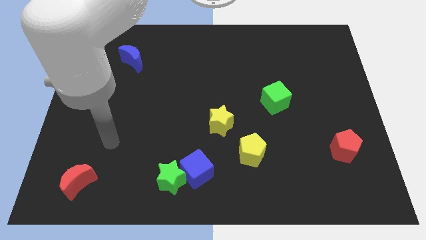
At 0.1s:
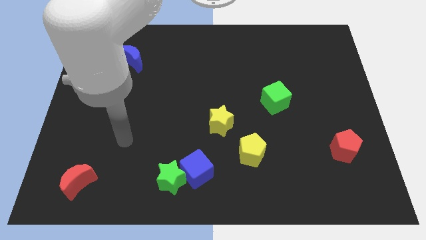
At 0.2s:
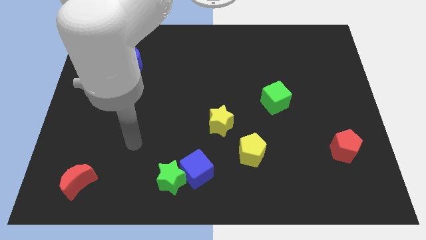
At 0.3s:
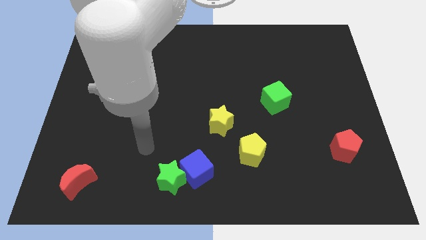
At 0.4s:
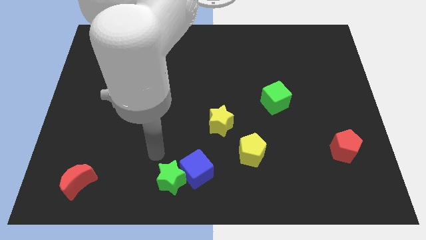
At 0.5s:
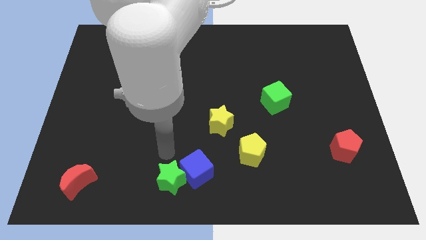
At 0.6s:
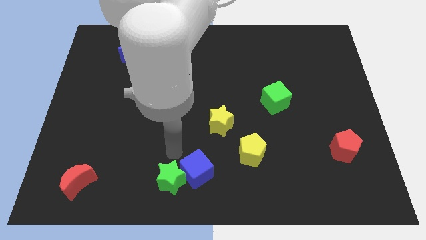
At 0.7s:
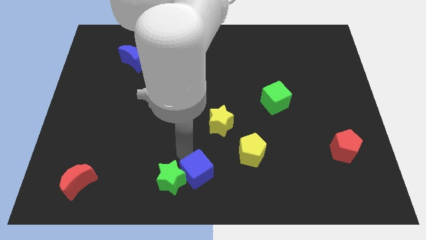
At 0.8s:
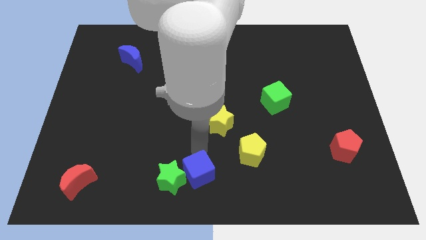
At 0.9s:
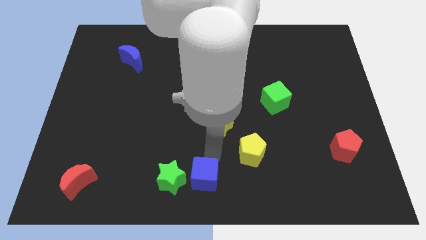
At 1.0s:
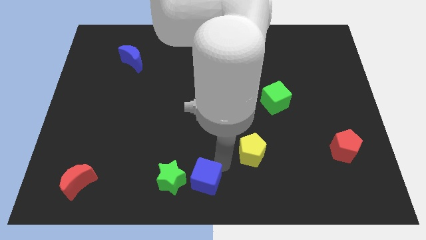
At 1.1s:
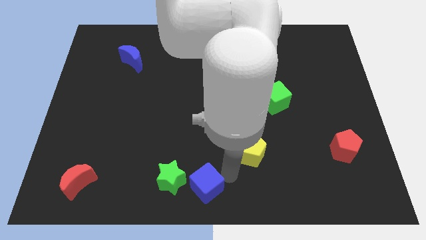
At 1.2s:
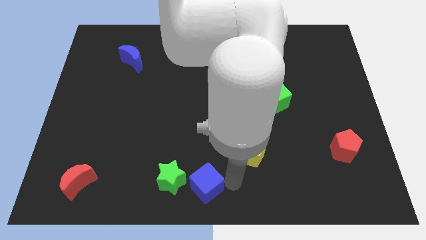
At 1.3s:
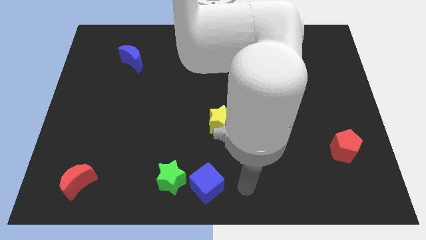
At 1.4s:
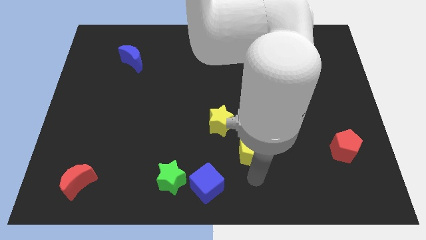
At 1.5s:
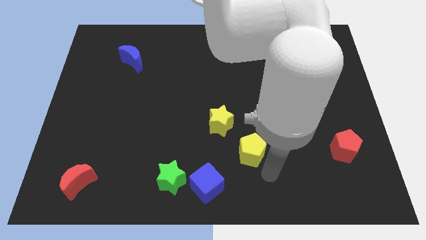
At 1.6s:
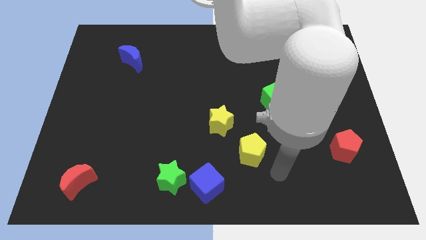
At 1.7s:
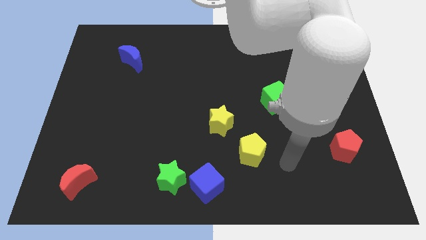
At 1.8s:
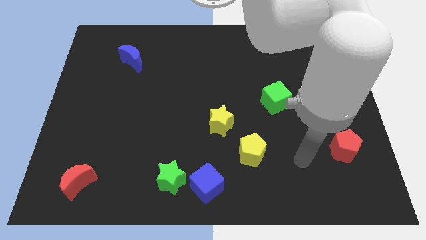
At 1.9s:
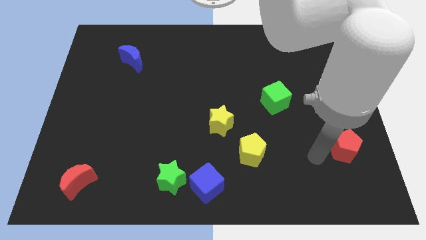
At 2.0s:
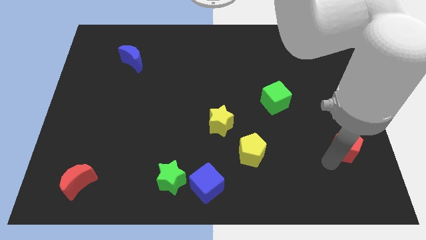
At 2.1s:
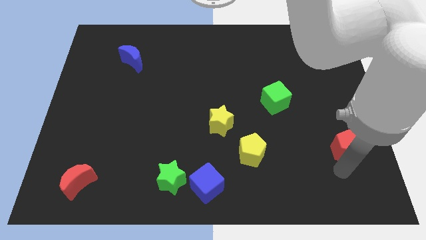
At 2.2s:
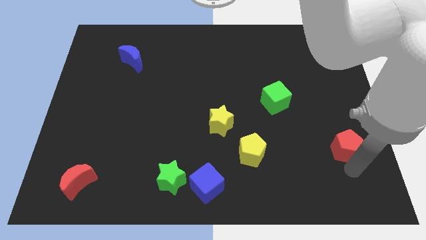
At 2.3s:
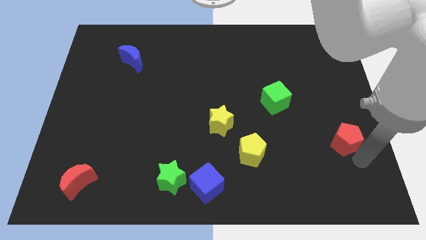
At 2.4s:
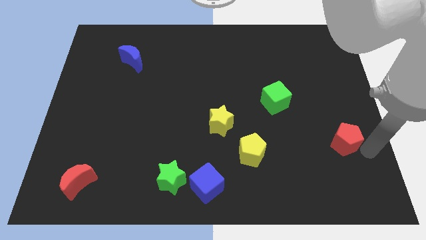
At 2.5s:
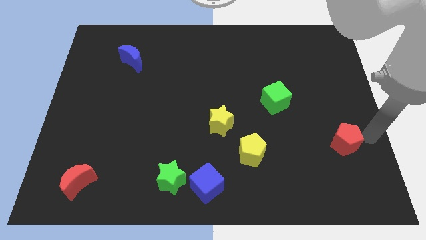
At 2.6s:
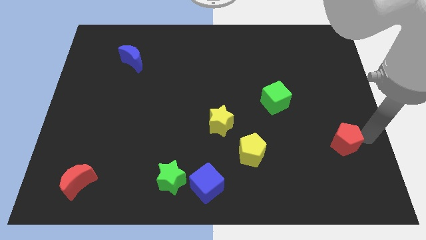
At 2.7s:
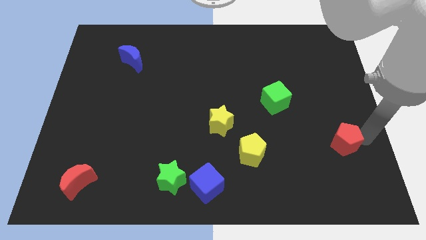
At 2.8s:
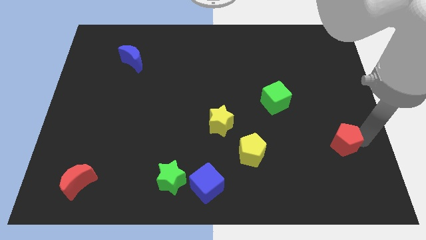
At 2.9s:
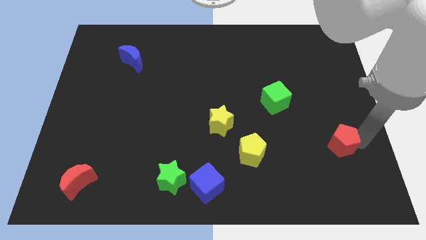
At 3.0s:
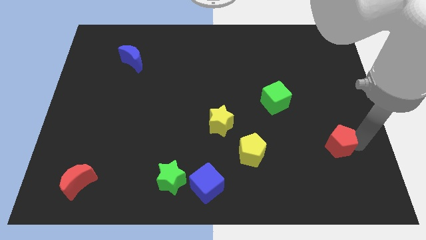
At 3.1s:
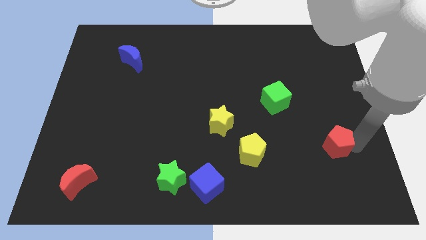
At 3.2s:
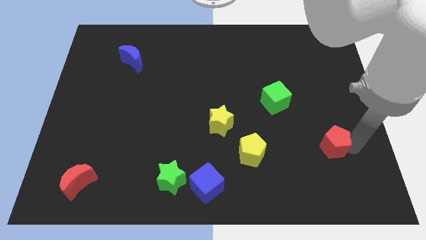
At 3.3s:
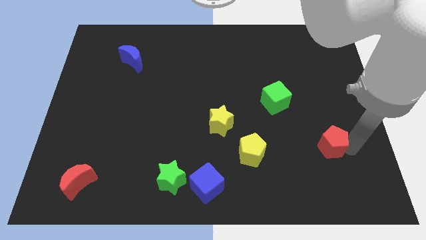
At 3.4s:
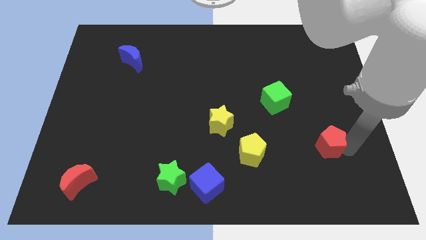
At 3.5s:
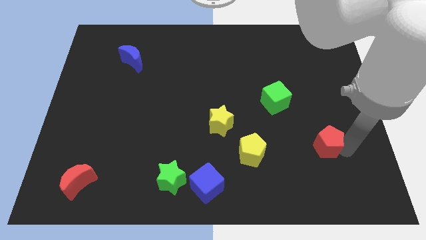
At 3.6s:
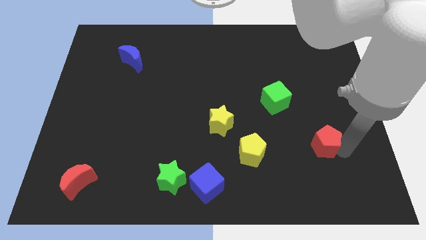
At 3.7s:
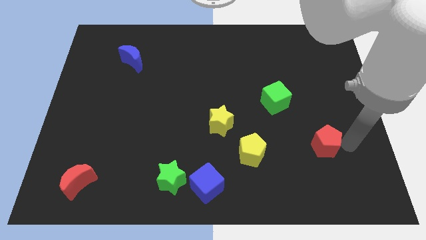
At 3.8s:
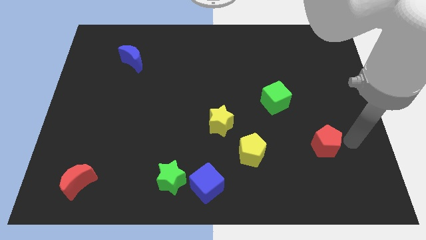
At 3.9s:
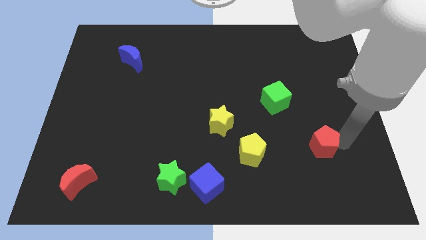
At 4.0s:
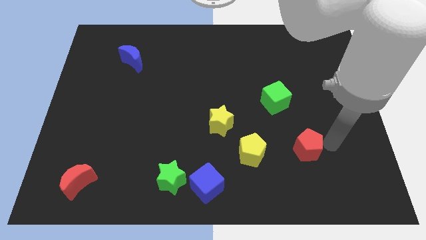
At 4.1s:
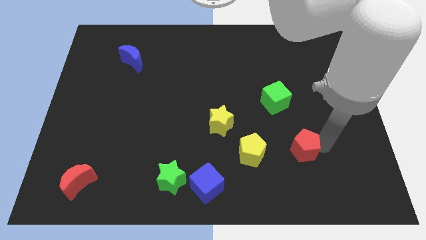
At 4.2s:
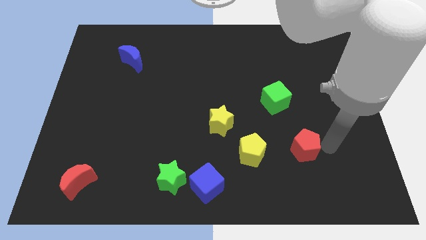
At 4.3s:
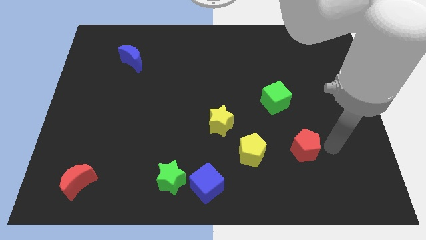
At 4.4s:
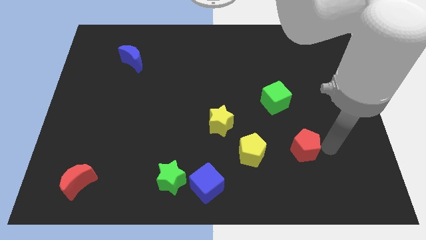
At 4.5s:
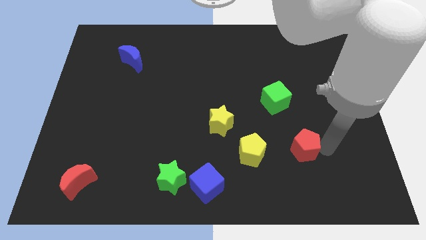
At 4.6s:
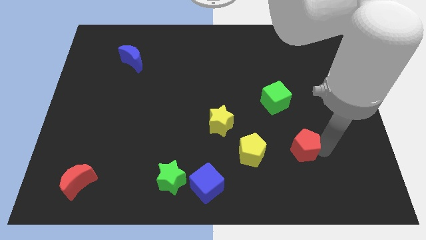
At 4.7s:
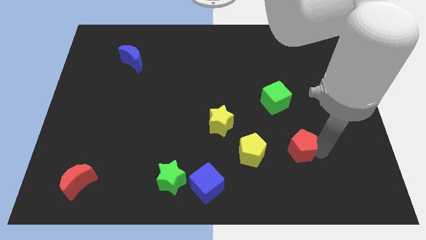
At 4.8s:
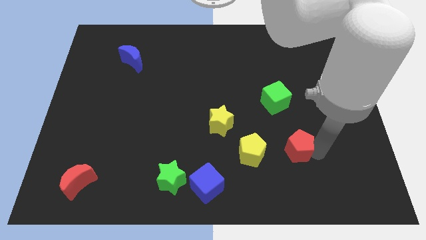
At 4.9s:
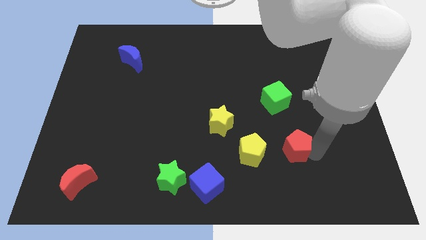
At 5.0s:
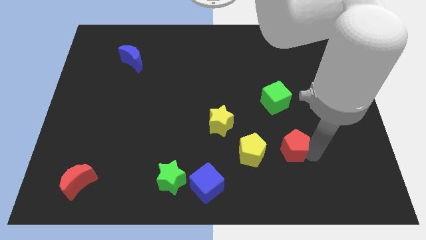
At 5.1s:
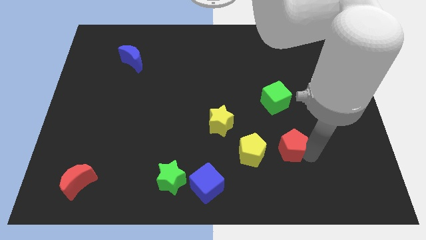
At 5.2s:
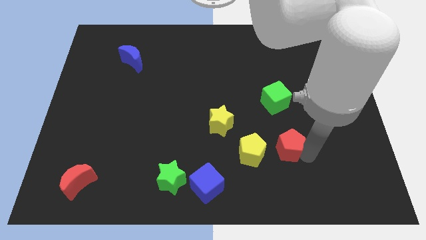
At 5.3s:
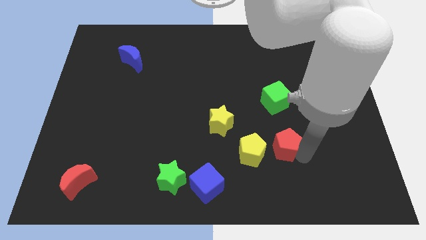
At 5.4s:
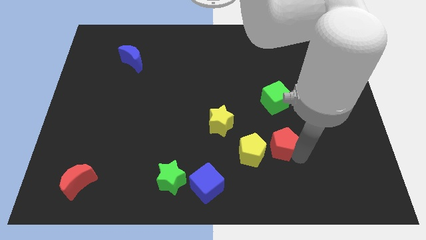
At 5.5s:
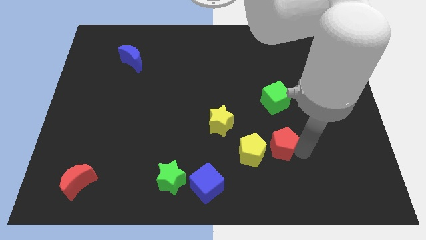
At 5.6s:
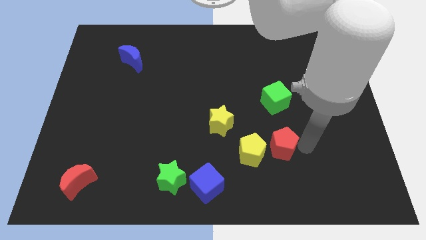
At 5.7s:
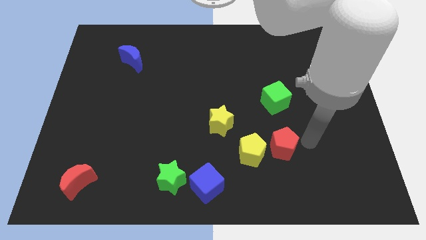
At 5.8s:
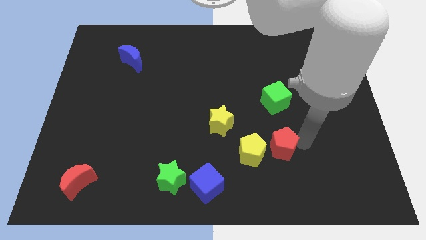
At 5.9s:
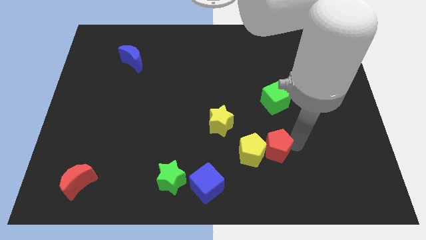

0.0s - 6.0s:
slide the red pentagon close to the yellow pentagon

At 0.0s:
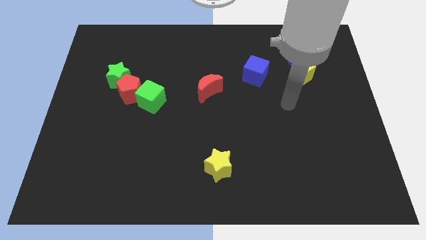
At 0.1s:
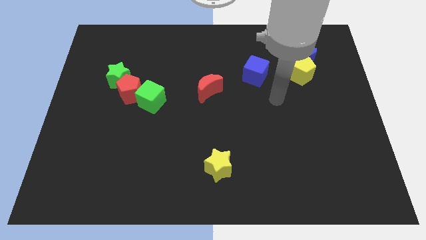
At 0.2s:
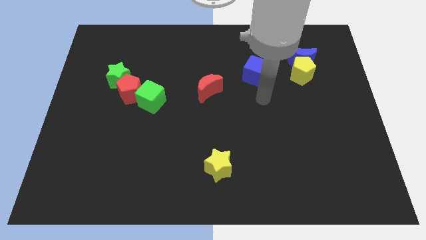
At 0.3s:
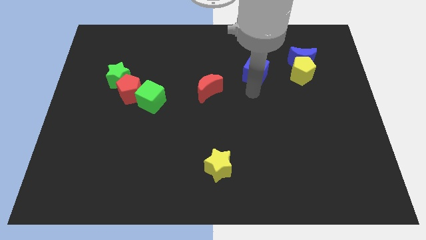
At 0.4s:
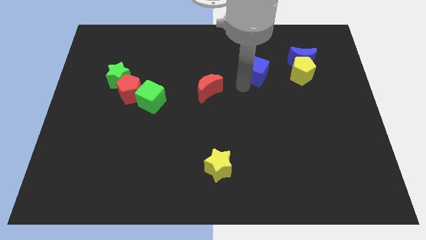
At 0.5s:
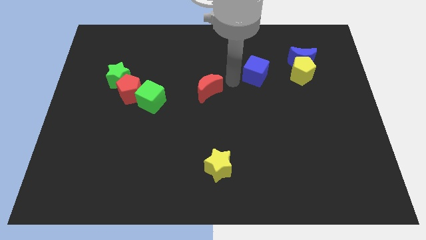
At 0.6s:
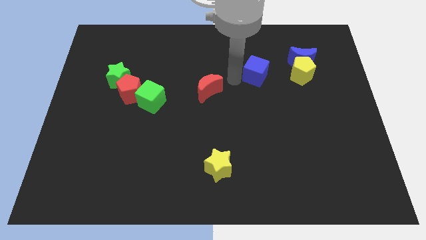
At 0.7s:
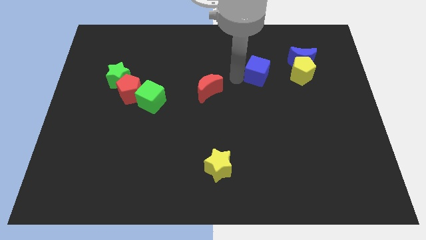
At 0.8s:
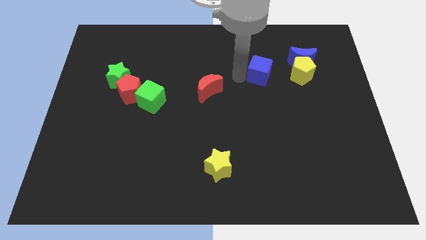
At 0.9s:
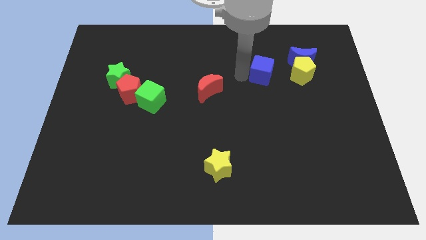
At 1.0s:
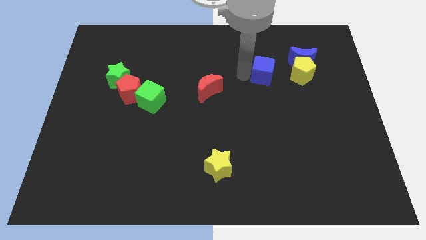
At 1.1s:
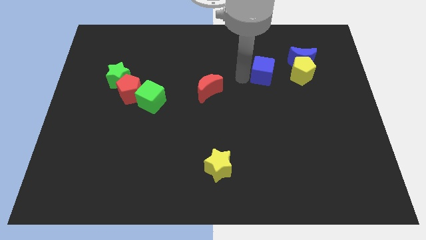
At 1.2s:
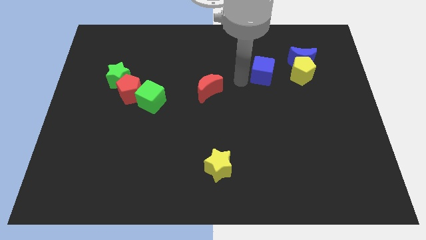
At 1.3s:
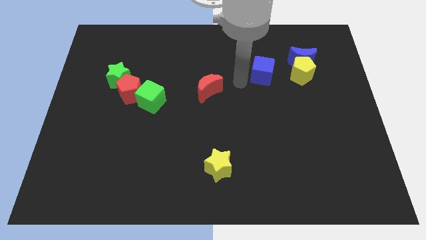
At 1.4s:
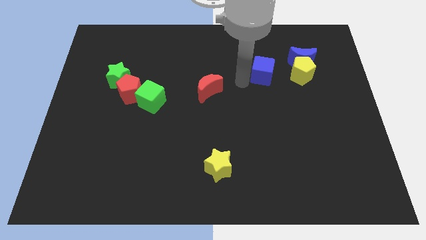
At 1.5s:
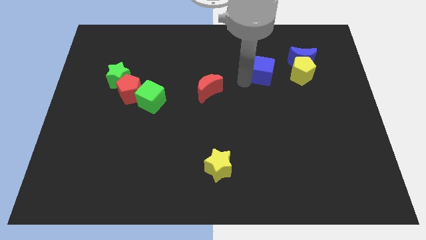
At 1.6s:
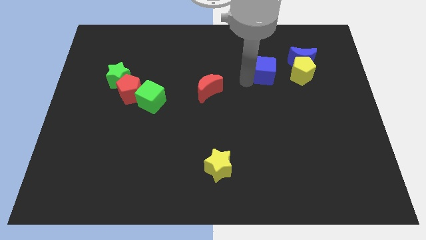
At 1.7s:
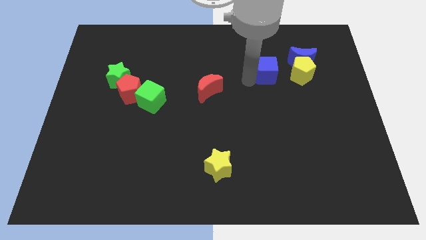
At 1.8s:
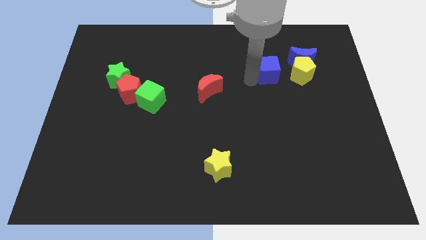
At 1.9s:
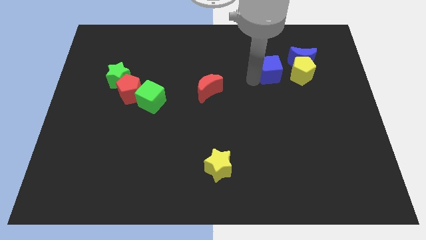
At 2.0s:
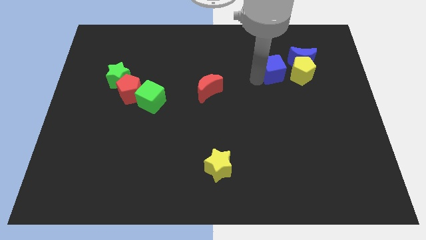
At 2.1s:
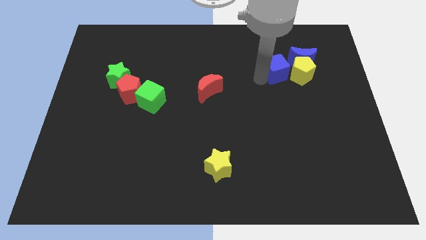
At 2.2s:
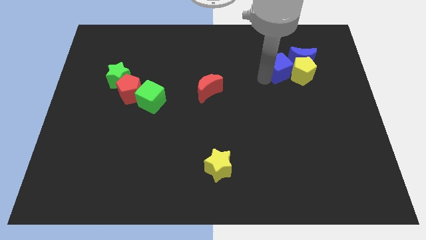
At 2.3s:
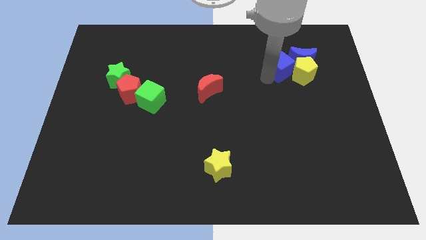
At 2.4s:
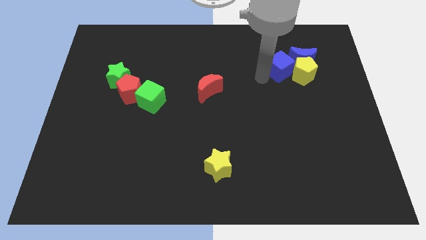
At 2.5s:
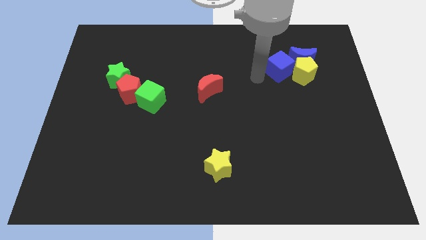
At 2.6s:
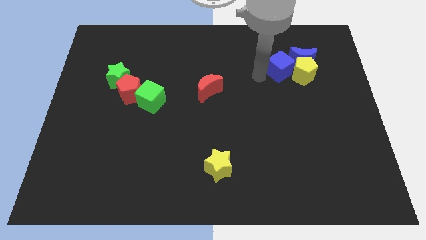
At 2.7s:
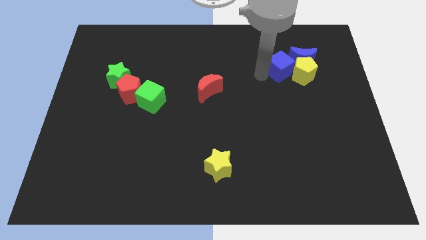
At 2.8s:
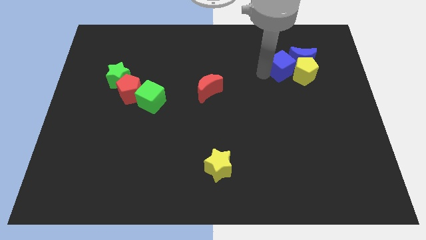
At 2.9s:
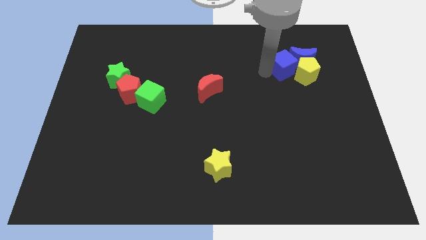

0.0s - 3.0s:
push the blue cube close to the blue moon
